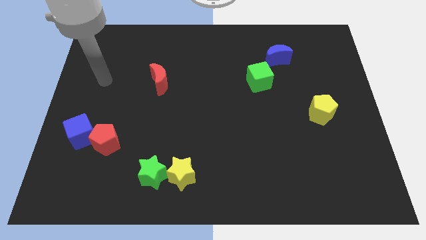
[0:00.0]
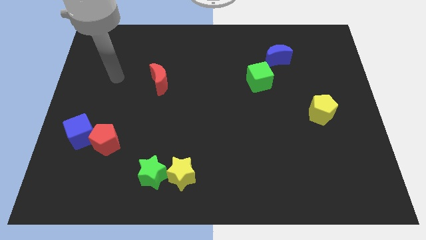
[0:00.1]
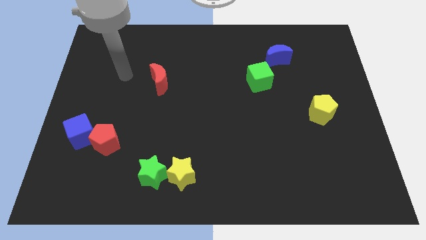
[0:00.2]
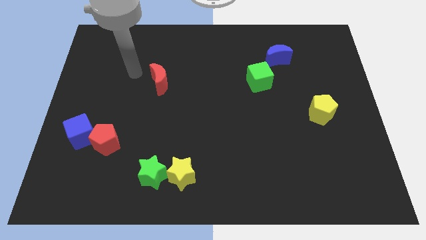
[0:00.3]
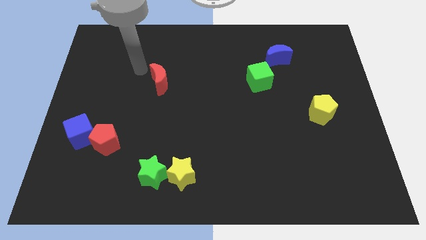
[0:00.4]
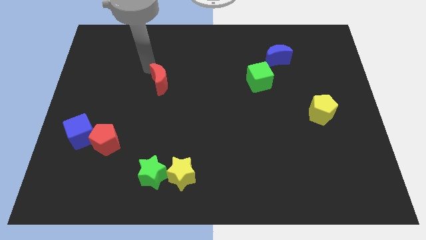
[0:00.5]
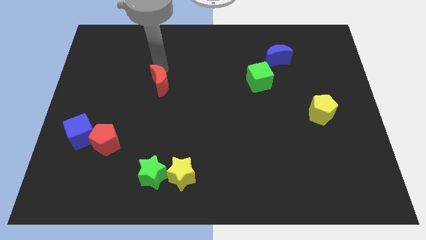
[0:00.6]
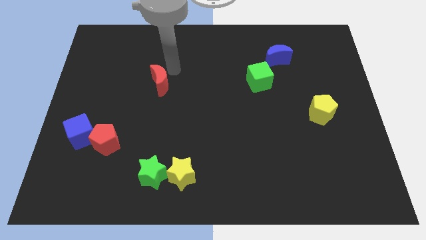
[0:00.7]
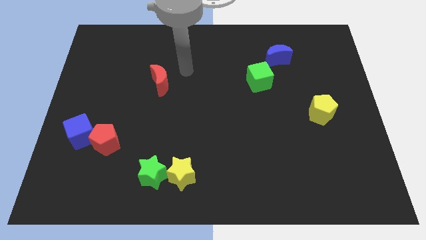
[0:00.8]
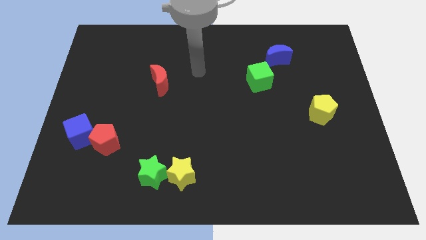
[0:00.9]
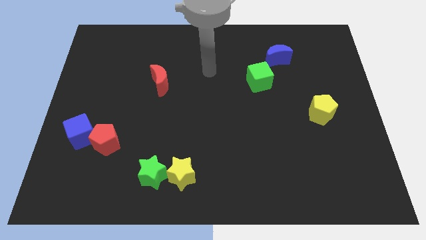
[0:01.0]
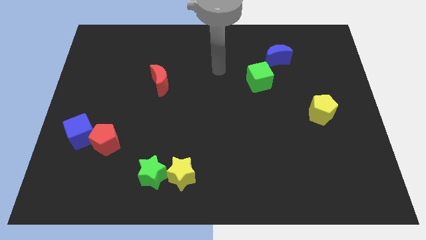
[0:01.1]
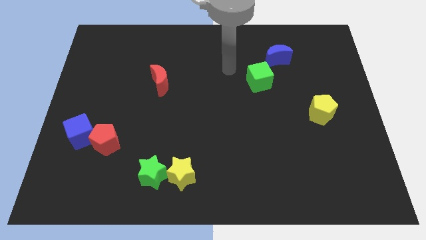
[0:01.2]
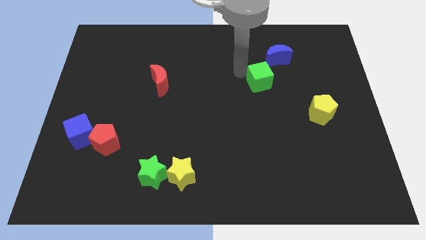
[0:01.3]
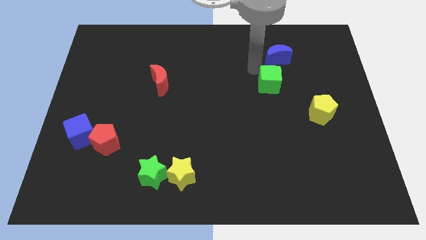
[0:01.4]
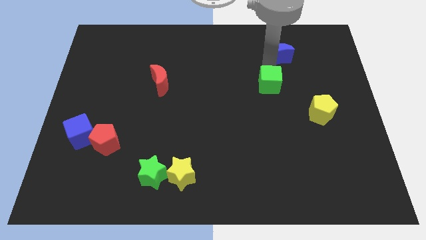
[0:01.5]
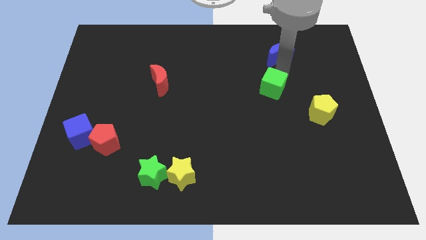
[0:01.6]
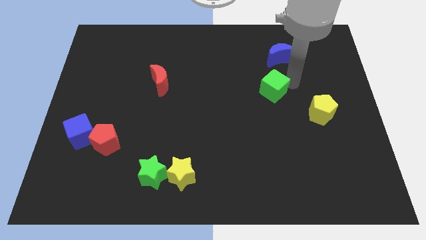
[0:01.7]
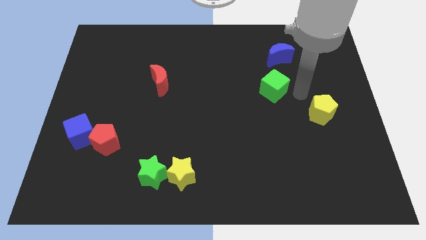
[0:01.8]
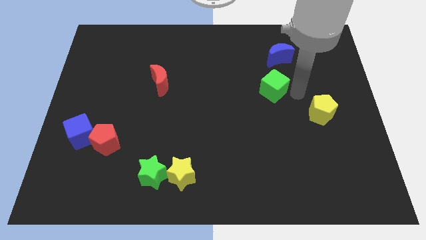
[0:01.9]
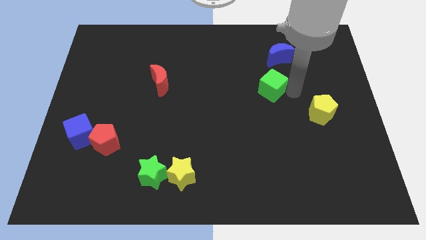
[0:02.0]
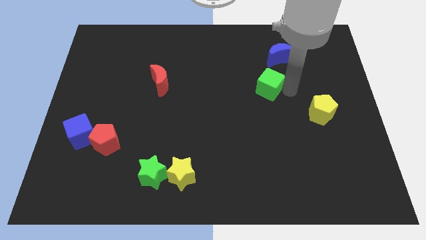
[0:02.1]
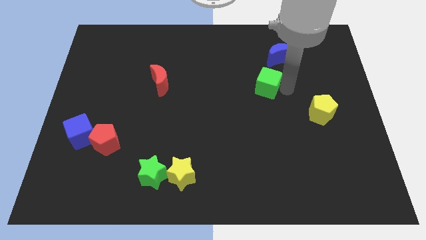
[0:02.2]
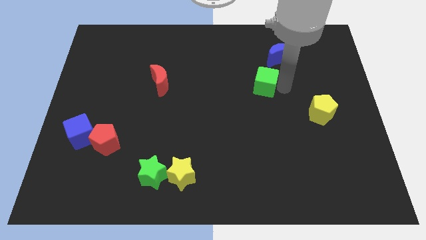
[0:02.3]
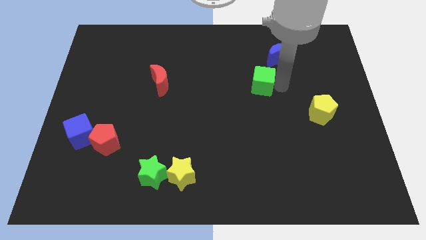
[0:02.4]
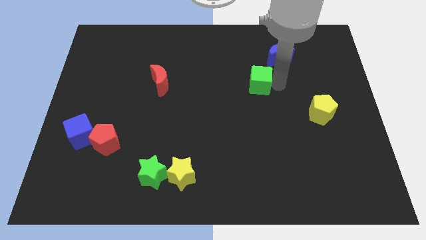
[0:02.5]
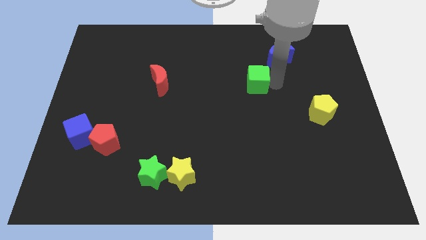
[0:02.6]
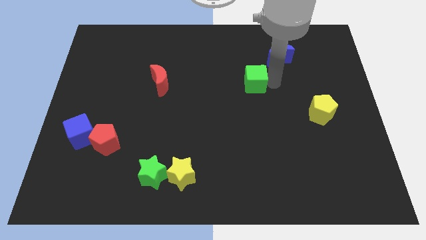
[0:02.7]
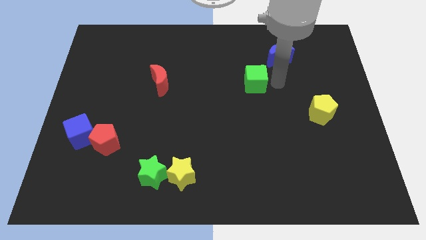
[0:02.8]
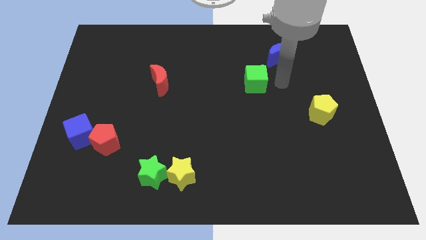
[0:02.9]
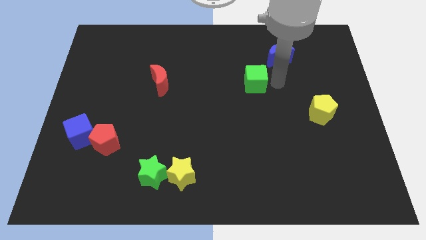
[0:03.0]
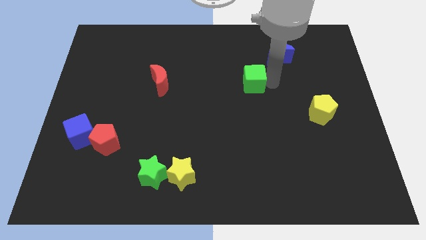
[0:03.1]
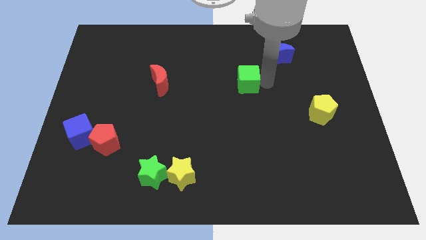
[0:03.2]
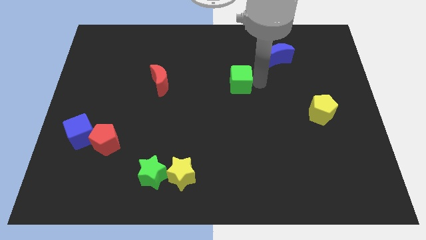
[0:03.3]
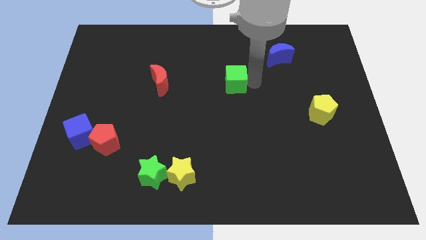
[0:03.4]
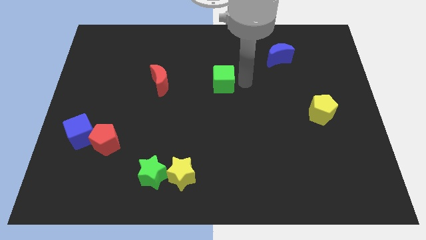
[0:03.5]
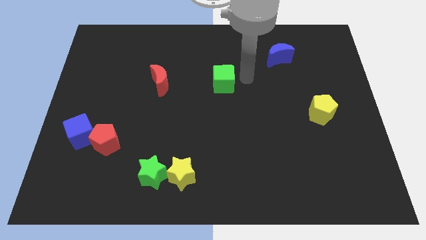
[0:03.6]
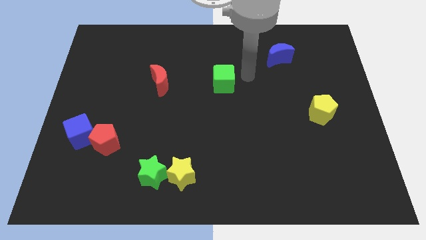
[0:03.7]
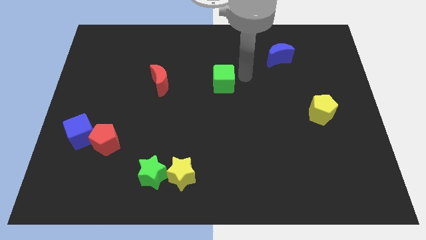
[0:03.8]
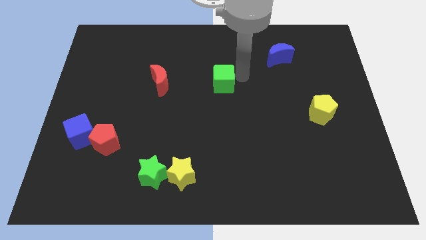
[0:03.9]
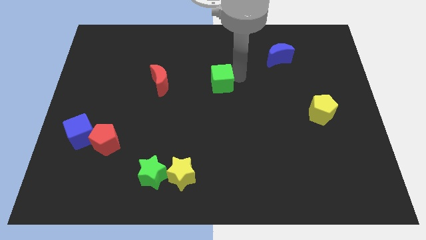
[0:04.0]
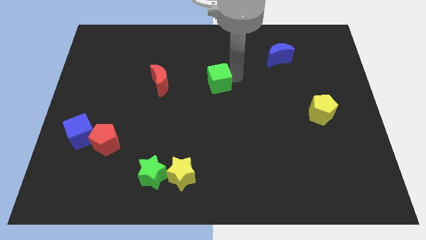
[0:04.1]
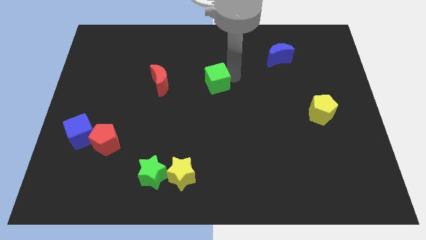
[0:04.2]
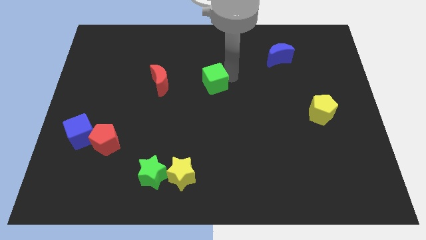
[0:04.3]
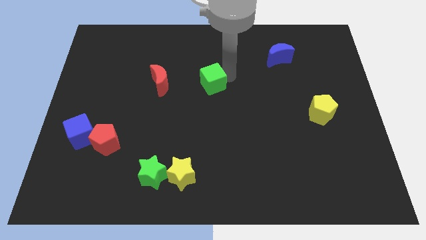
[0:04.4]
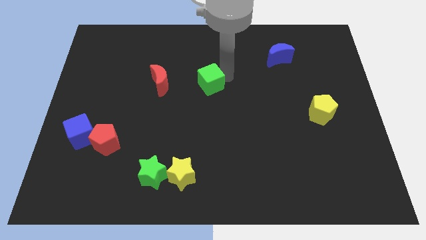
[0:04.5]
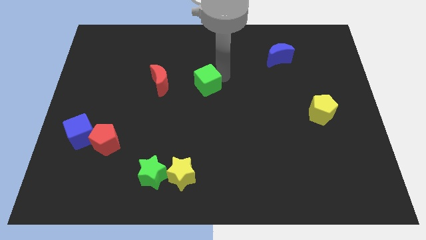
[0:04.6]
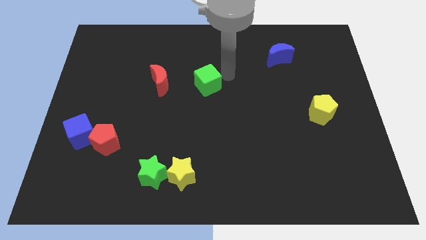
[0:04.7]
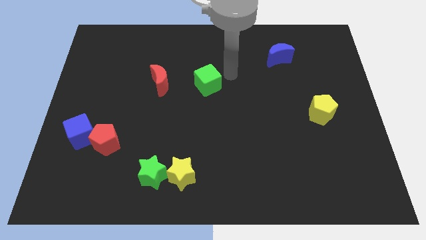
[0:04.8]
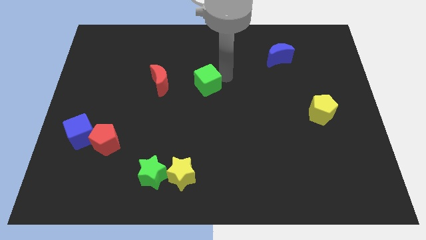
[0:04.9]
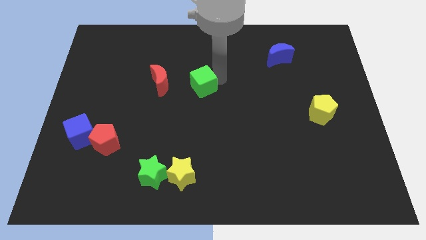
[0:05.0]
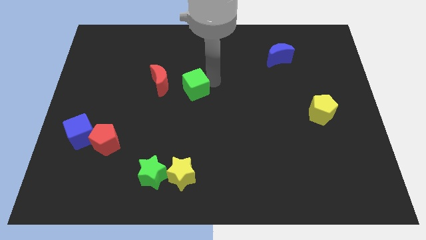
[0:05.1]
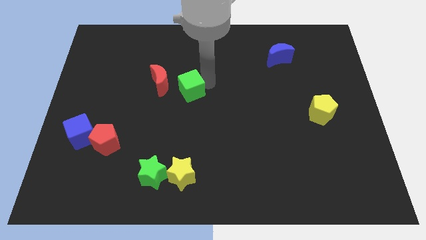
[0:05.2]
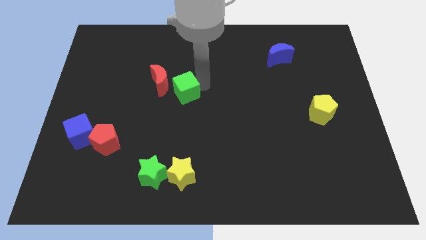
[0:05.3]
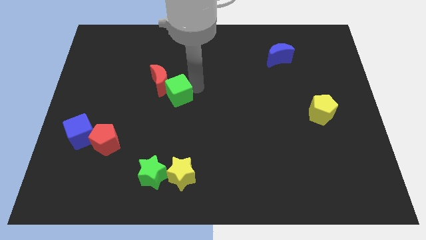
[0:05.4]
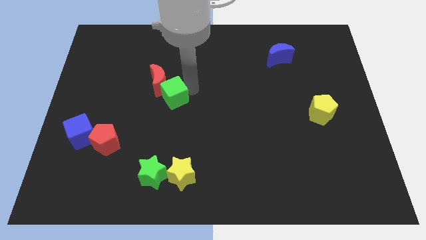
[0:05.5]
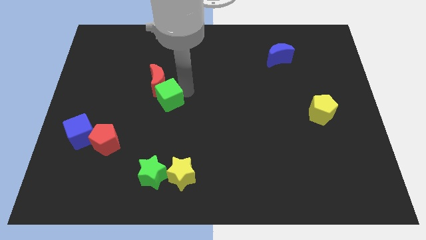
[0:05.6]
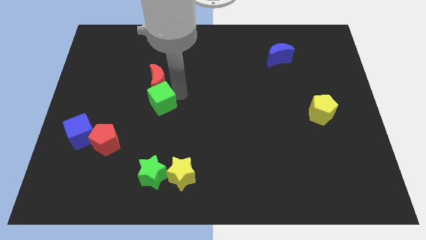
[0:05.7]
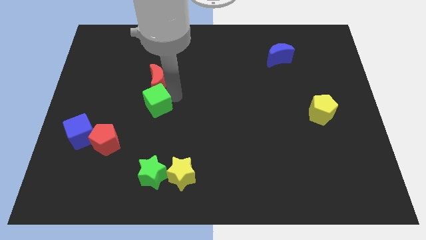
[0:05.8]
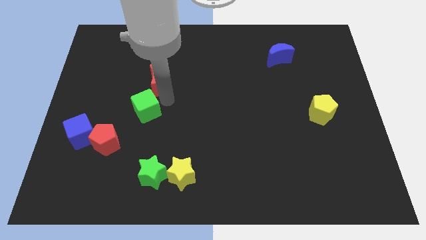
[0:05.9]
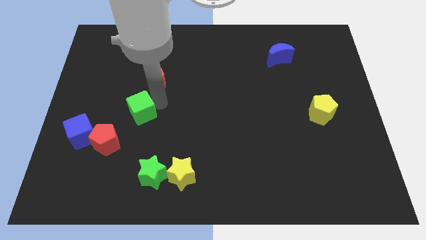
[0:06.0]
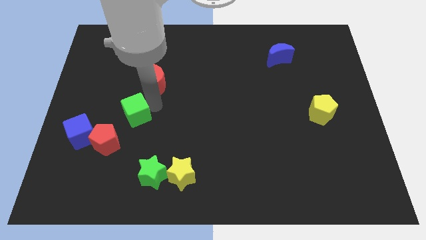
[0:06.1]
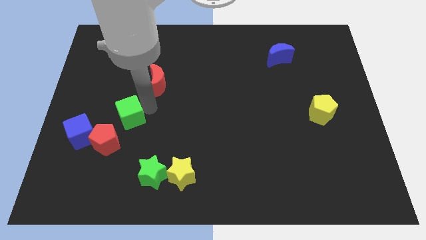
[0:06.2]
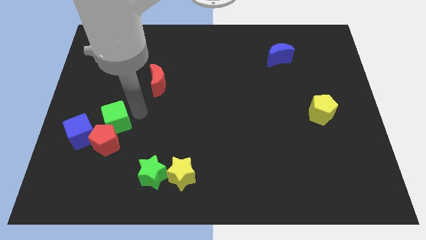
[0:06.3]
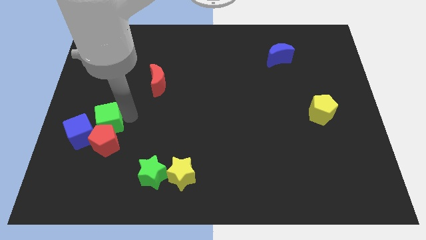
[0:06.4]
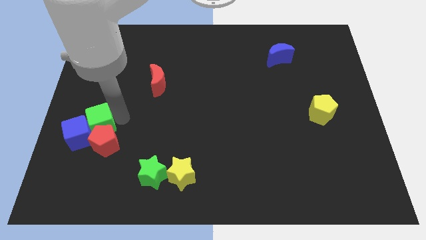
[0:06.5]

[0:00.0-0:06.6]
put the green cube close to the blue cube

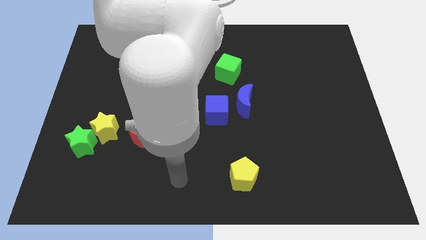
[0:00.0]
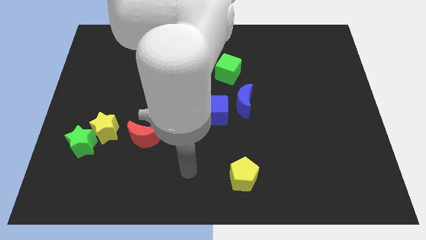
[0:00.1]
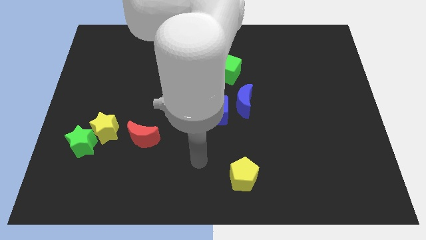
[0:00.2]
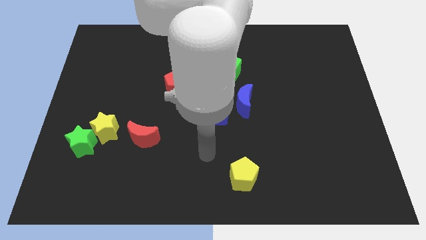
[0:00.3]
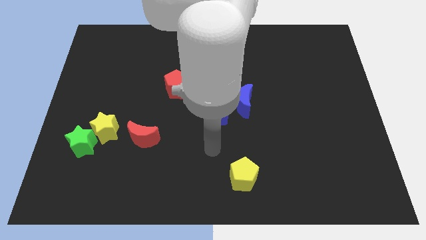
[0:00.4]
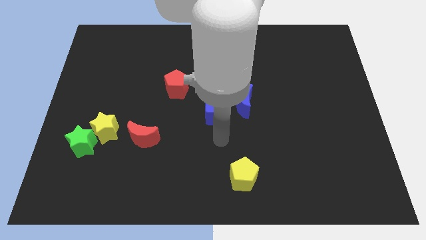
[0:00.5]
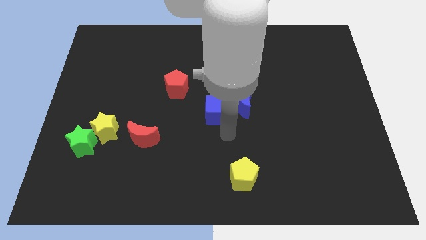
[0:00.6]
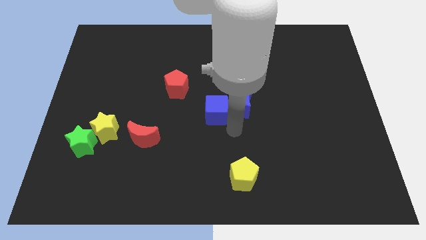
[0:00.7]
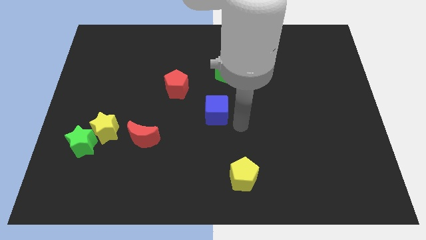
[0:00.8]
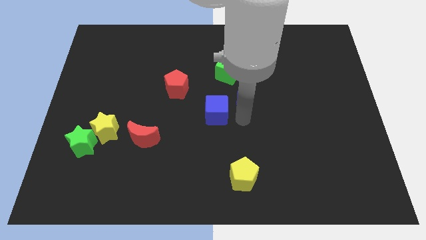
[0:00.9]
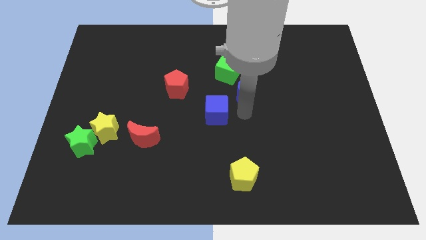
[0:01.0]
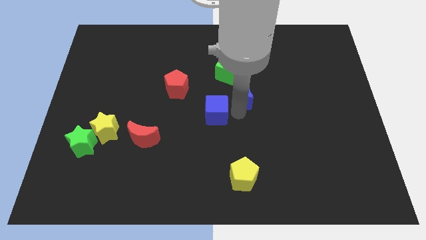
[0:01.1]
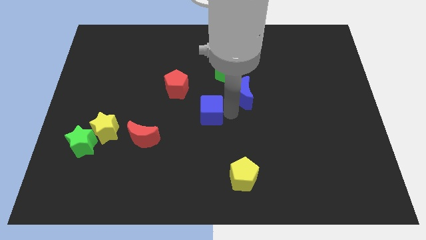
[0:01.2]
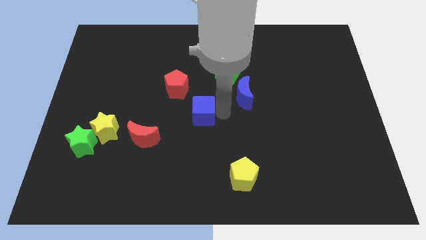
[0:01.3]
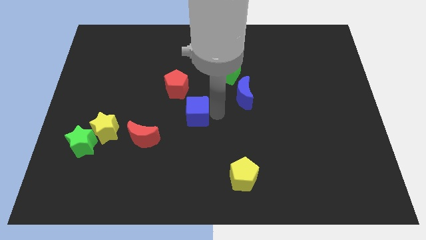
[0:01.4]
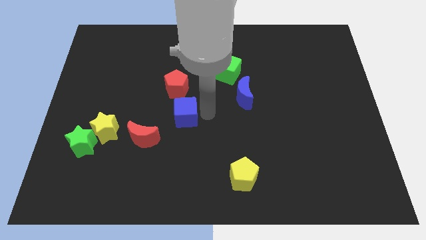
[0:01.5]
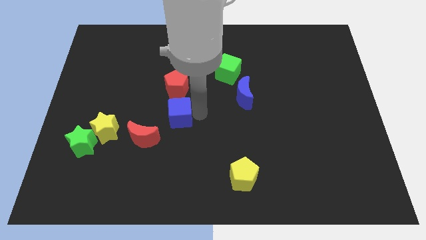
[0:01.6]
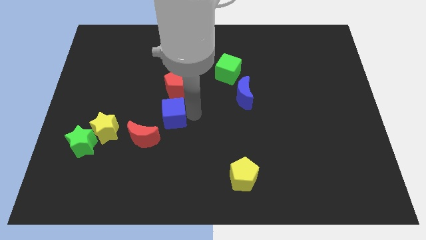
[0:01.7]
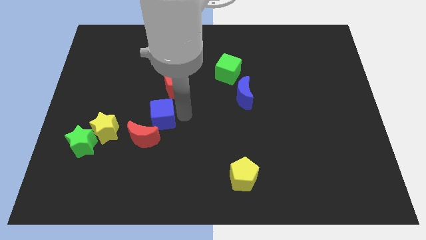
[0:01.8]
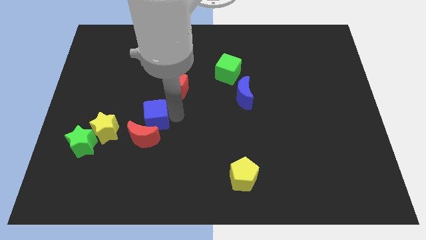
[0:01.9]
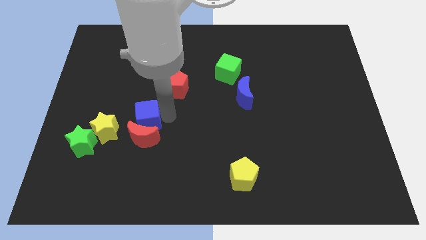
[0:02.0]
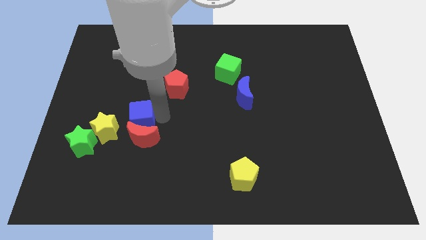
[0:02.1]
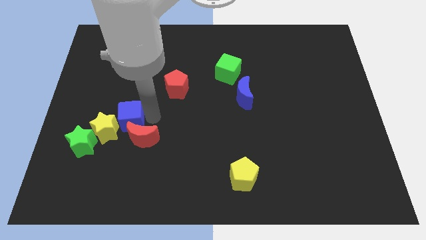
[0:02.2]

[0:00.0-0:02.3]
move the blue cube close to the yellow star
